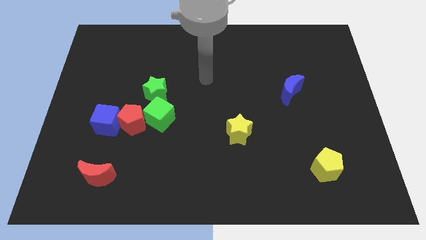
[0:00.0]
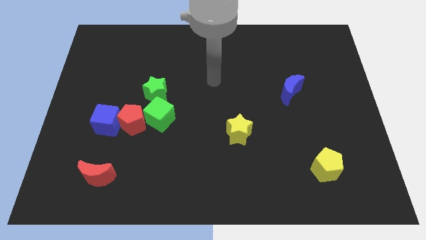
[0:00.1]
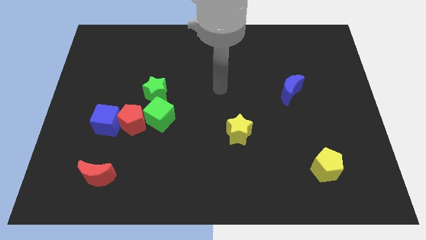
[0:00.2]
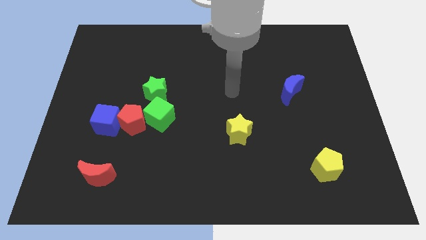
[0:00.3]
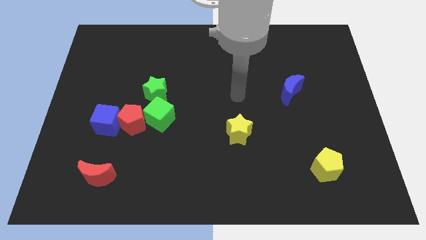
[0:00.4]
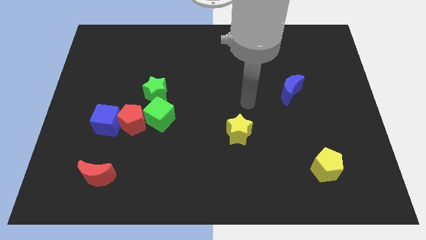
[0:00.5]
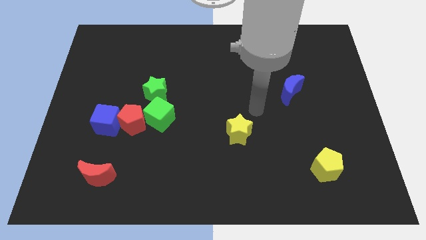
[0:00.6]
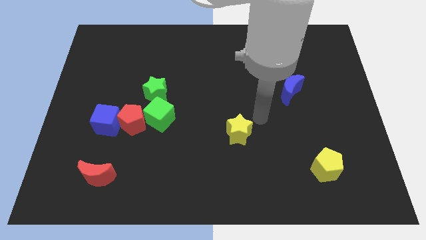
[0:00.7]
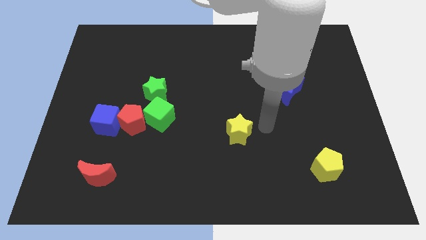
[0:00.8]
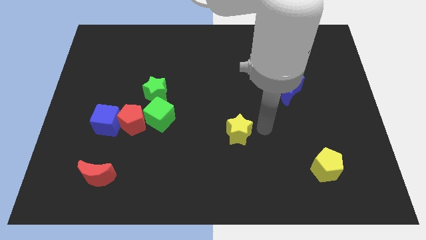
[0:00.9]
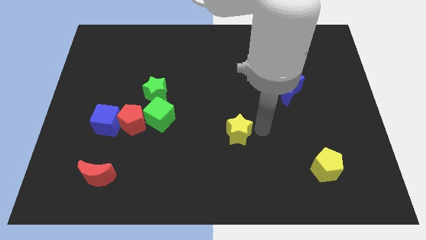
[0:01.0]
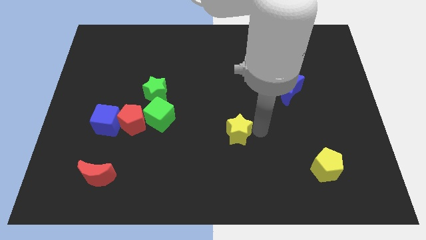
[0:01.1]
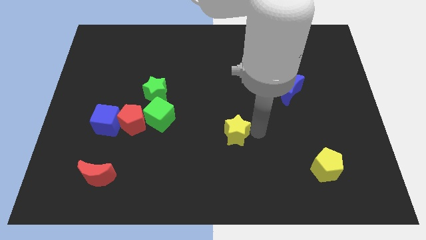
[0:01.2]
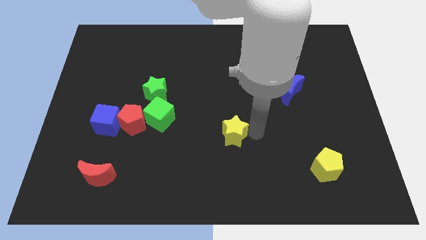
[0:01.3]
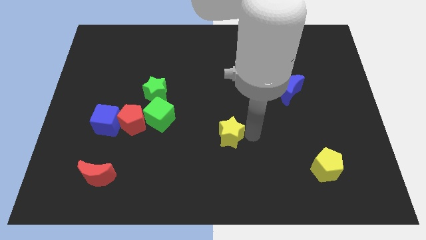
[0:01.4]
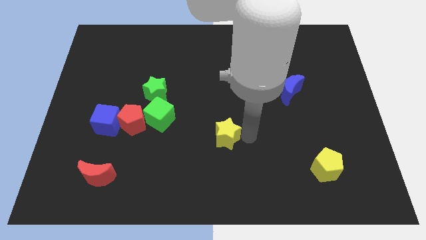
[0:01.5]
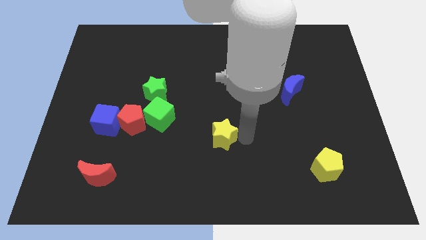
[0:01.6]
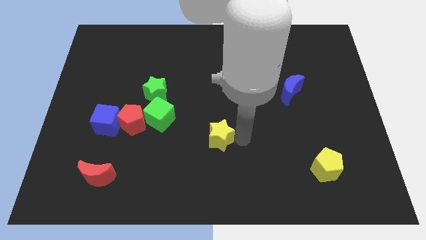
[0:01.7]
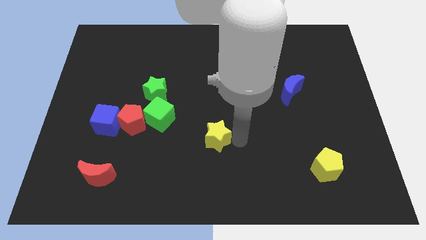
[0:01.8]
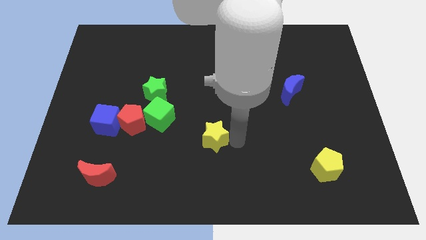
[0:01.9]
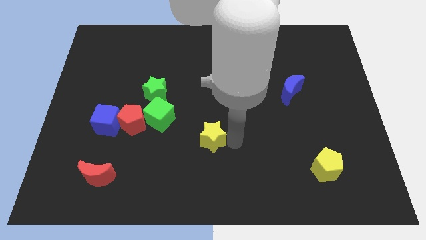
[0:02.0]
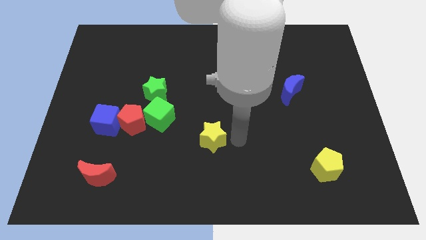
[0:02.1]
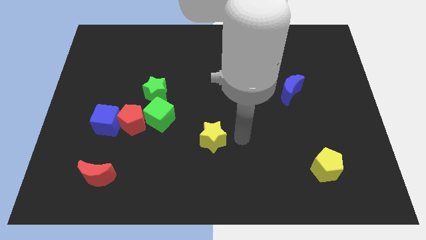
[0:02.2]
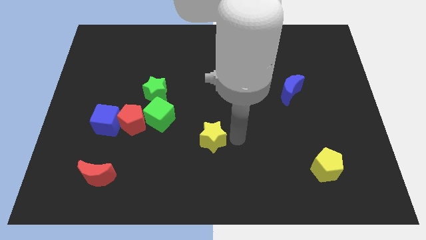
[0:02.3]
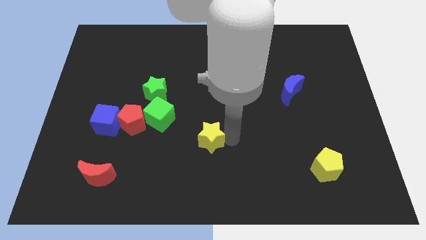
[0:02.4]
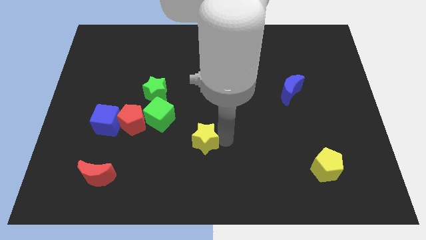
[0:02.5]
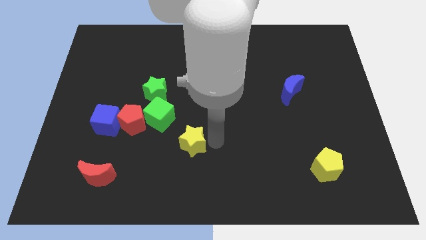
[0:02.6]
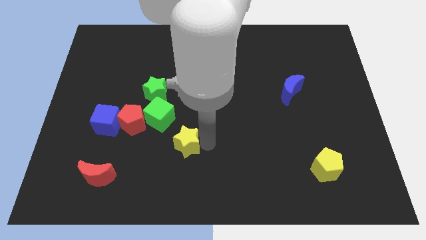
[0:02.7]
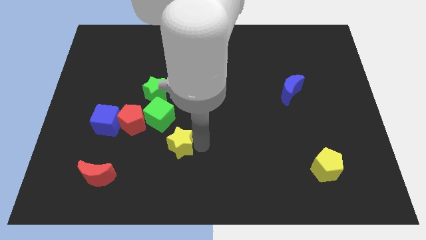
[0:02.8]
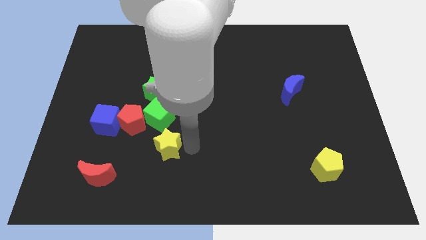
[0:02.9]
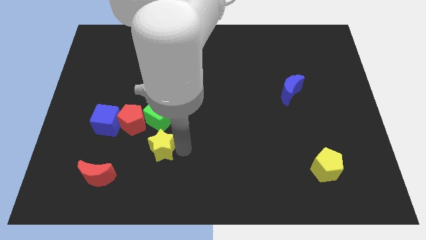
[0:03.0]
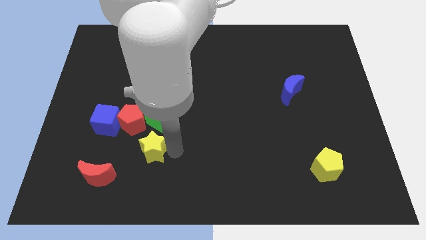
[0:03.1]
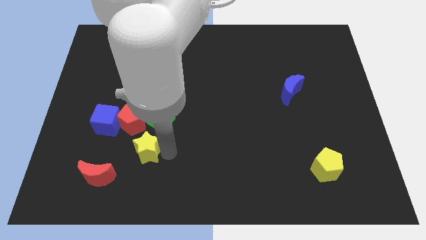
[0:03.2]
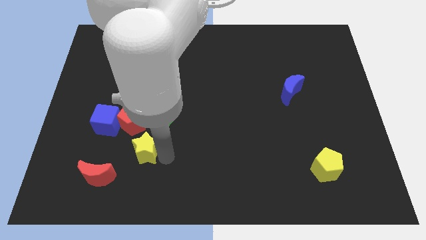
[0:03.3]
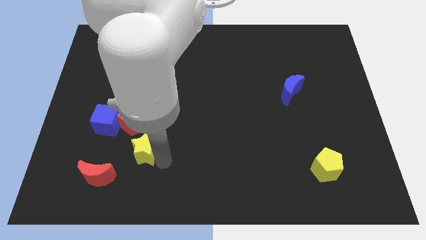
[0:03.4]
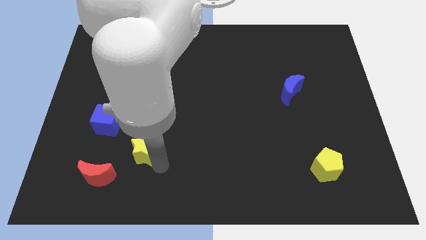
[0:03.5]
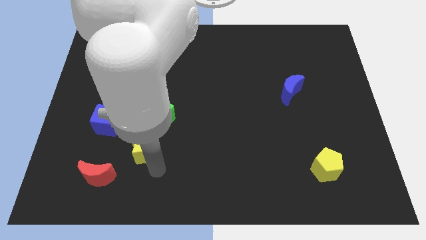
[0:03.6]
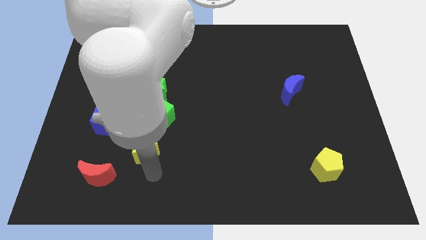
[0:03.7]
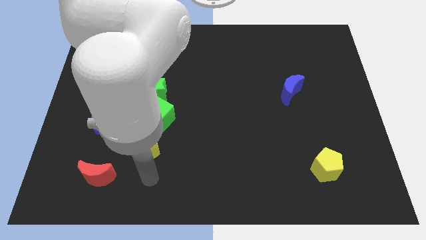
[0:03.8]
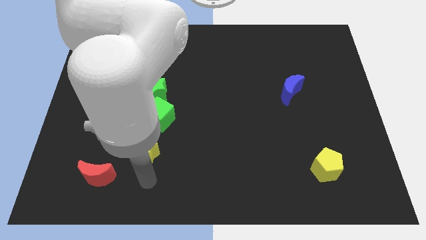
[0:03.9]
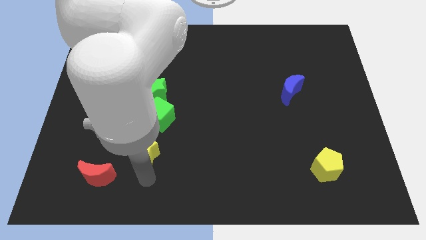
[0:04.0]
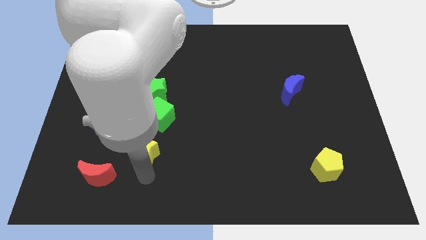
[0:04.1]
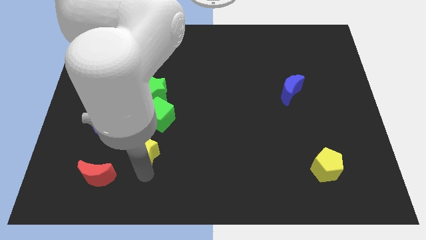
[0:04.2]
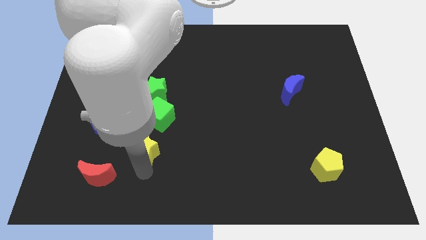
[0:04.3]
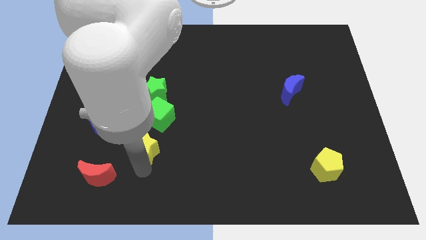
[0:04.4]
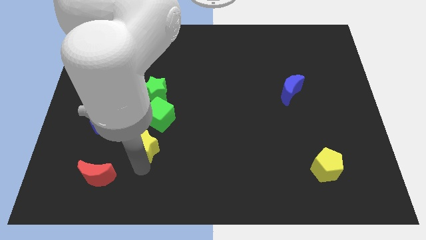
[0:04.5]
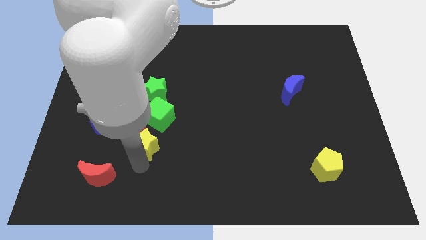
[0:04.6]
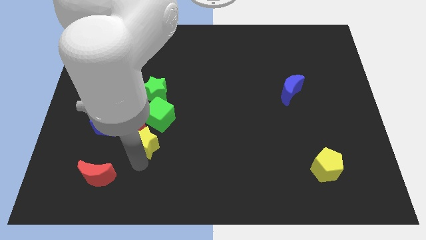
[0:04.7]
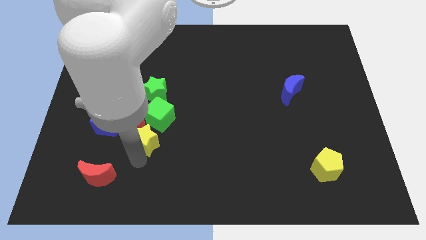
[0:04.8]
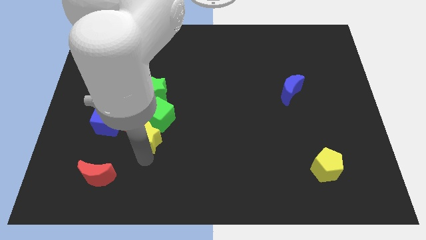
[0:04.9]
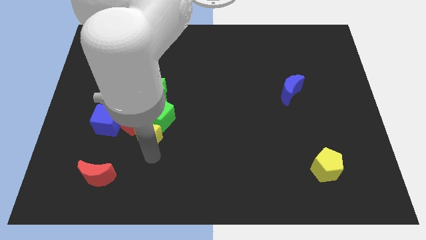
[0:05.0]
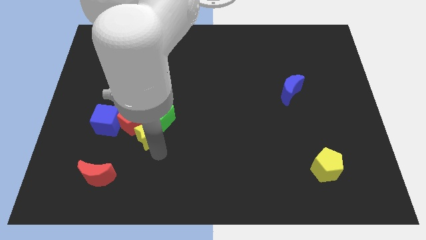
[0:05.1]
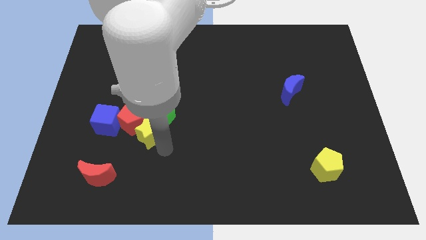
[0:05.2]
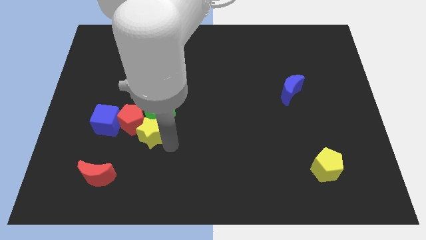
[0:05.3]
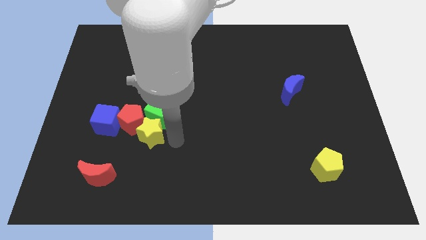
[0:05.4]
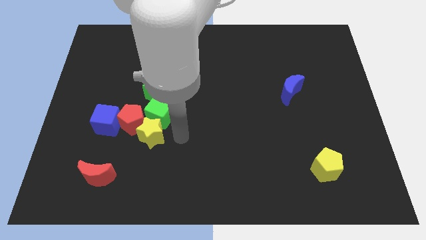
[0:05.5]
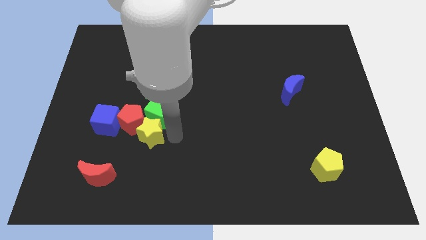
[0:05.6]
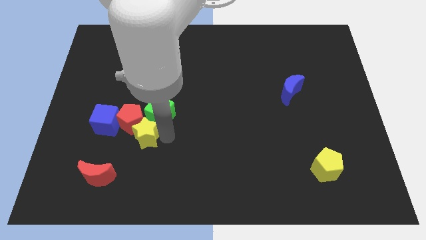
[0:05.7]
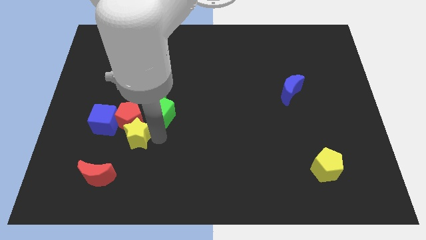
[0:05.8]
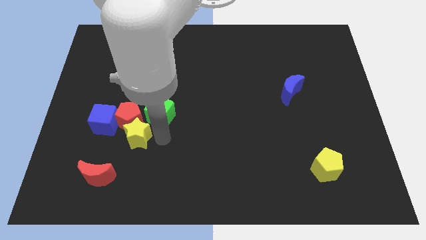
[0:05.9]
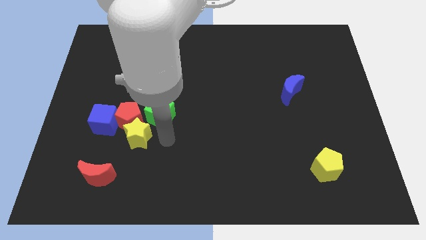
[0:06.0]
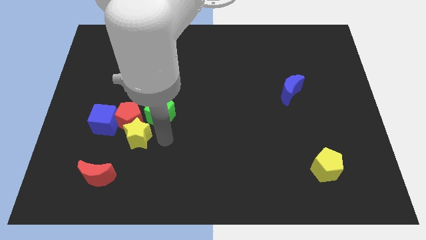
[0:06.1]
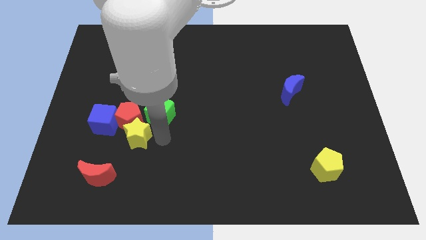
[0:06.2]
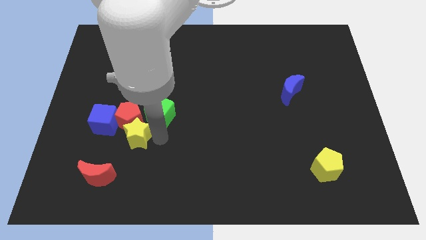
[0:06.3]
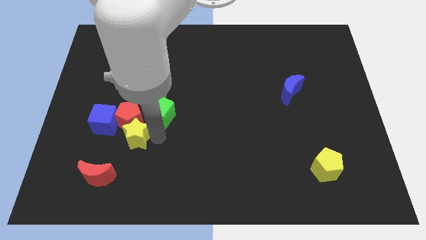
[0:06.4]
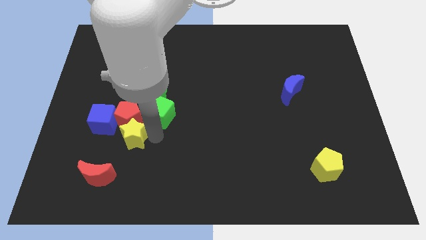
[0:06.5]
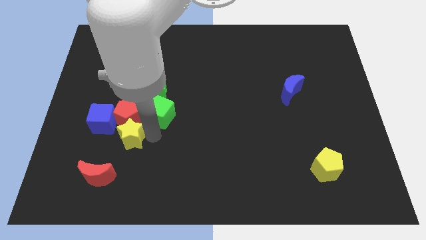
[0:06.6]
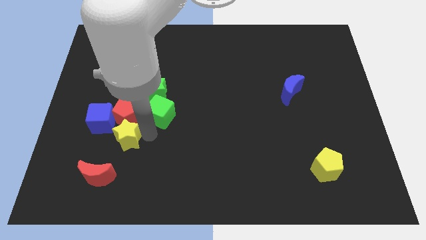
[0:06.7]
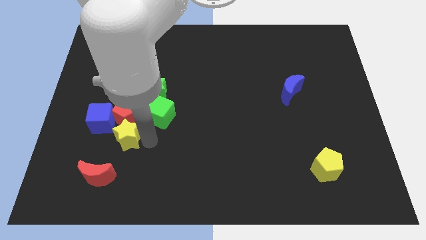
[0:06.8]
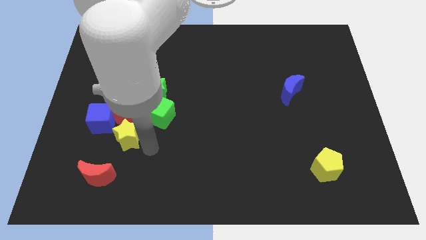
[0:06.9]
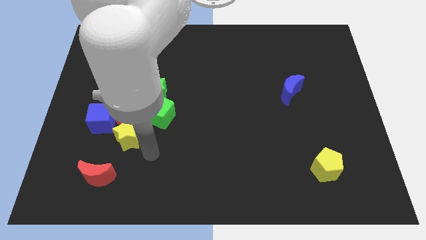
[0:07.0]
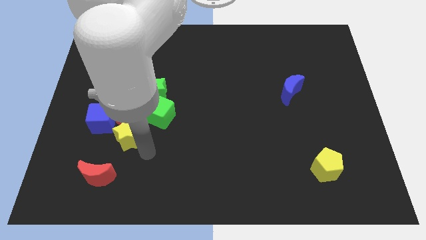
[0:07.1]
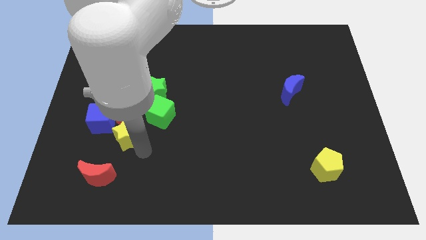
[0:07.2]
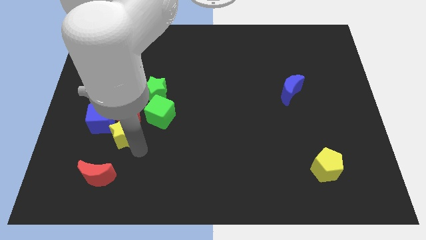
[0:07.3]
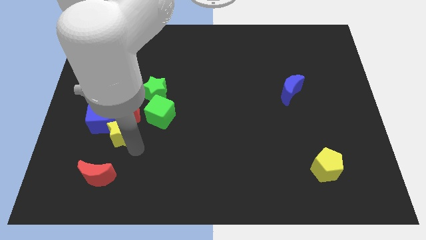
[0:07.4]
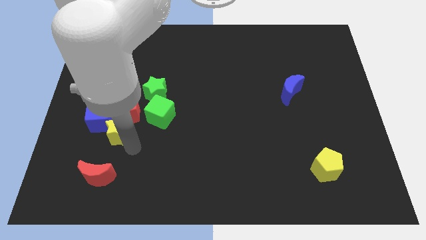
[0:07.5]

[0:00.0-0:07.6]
push the yellow star to the blue cube
